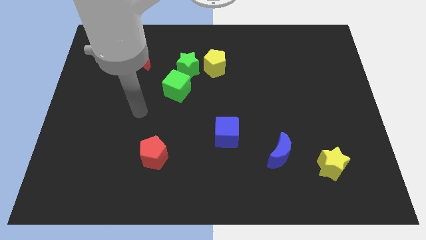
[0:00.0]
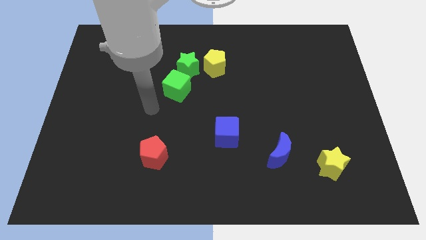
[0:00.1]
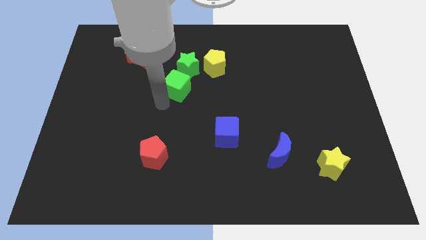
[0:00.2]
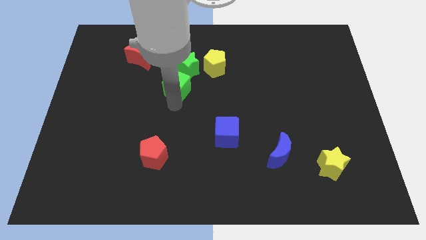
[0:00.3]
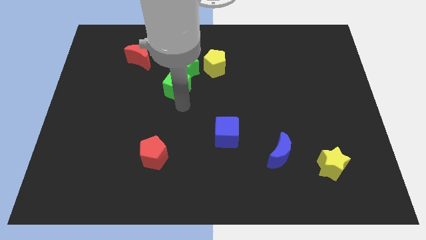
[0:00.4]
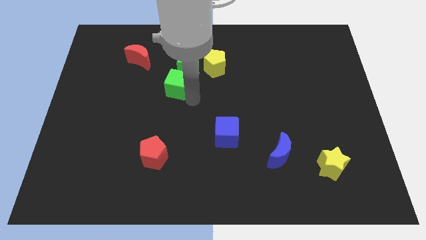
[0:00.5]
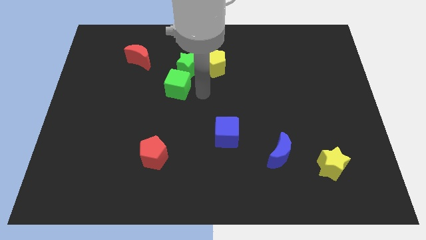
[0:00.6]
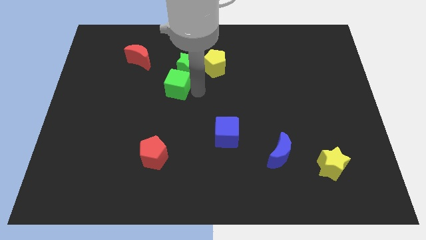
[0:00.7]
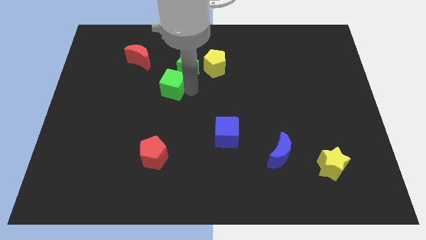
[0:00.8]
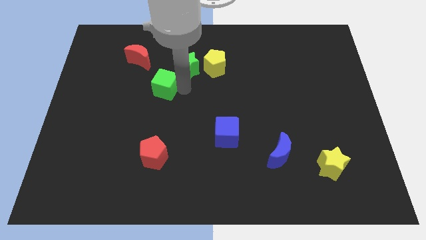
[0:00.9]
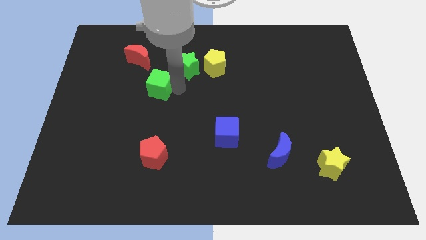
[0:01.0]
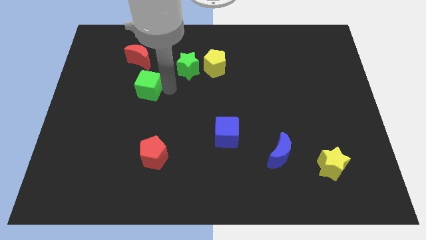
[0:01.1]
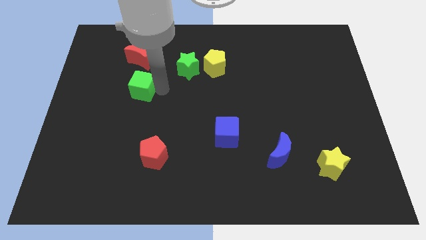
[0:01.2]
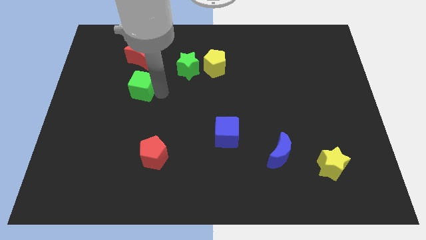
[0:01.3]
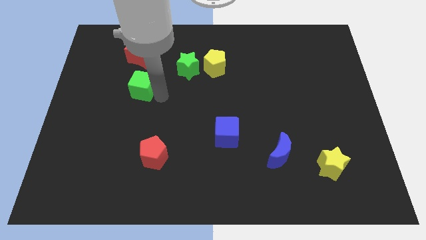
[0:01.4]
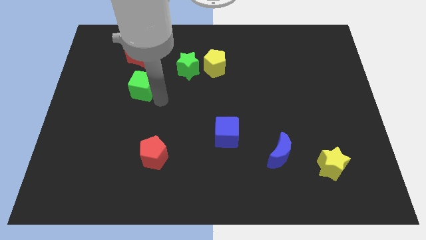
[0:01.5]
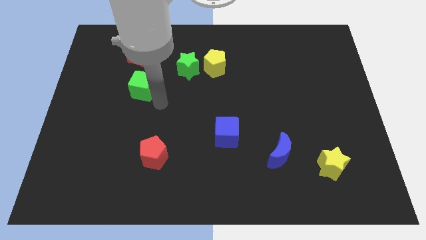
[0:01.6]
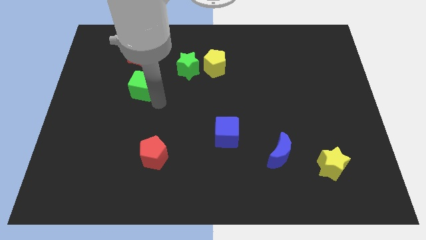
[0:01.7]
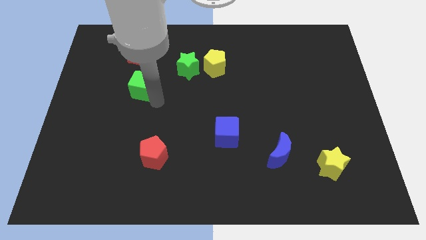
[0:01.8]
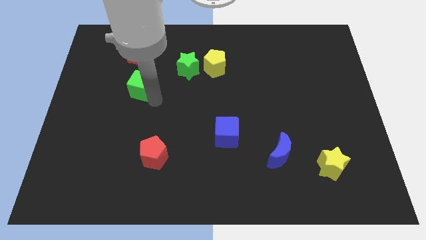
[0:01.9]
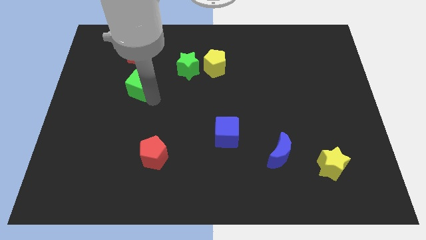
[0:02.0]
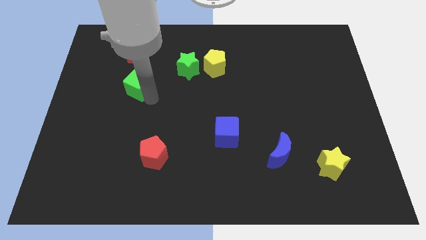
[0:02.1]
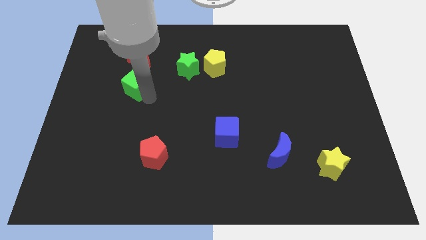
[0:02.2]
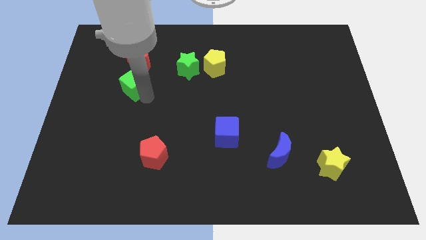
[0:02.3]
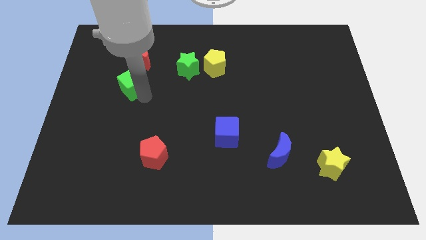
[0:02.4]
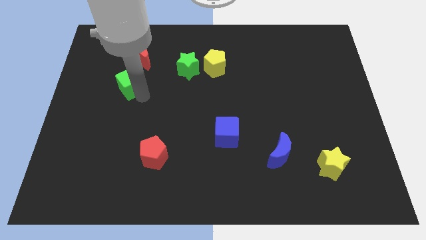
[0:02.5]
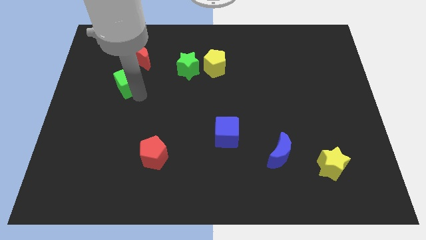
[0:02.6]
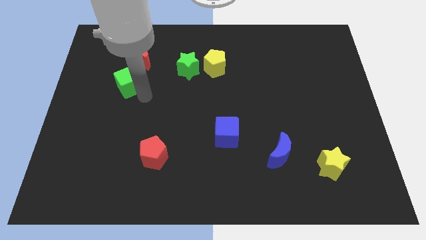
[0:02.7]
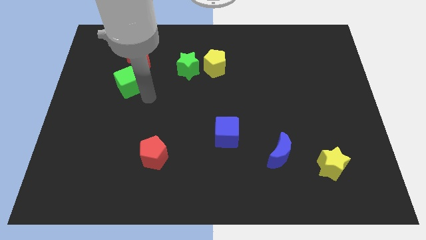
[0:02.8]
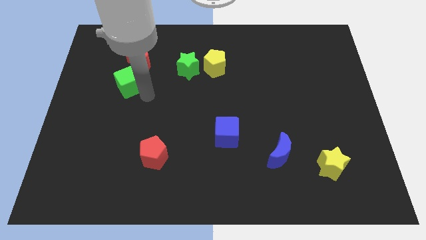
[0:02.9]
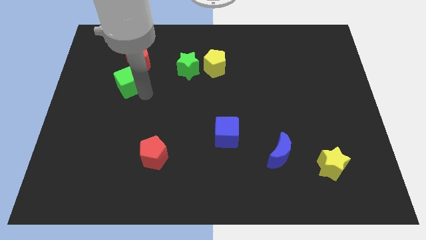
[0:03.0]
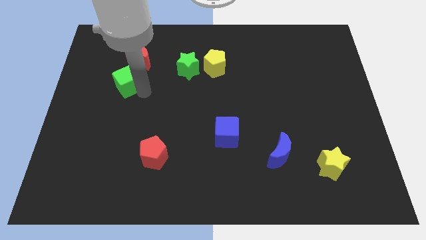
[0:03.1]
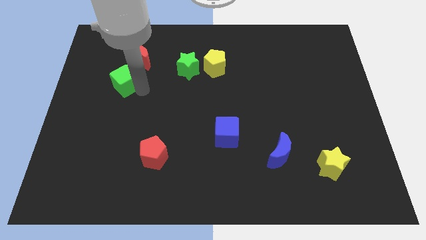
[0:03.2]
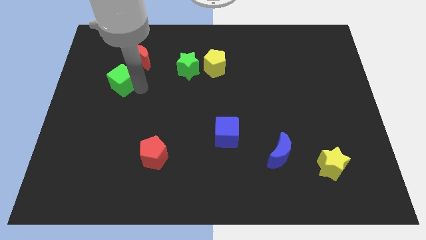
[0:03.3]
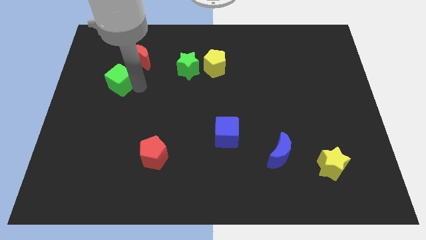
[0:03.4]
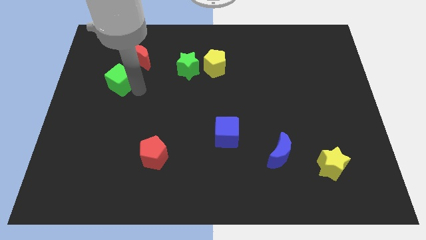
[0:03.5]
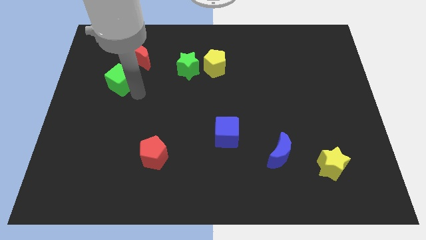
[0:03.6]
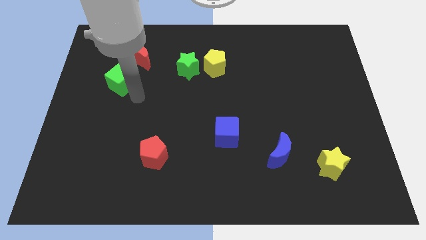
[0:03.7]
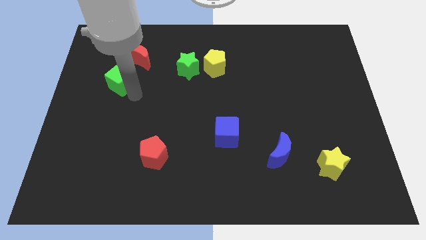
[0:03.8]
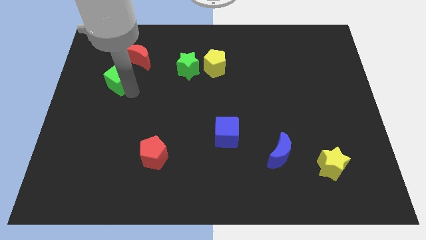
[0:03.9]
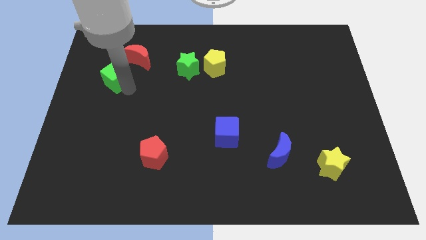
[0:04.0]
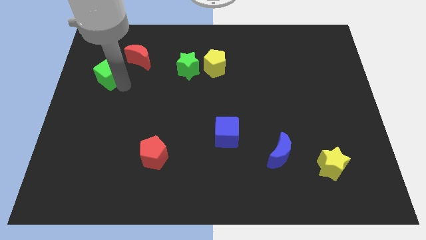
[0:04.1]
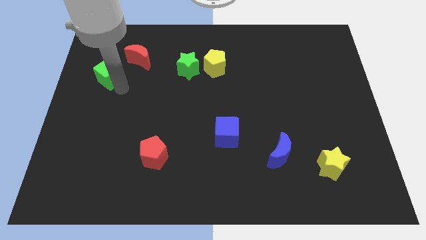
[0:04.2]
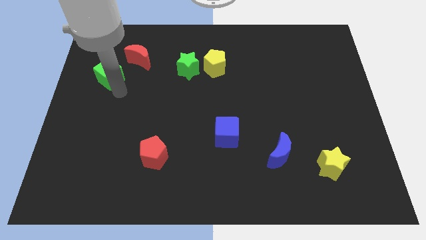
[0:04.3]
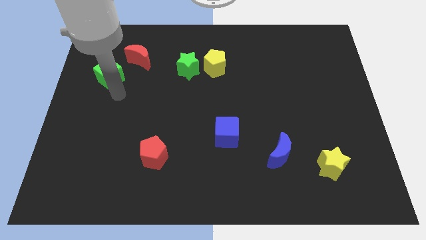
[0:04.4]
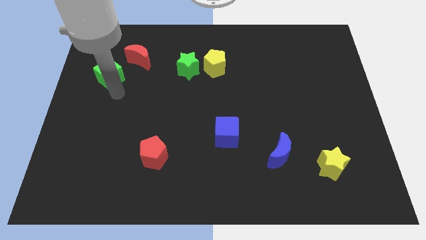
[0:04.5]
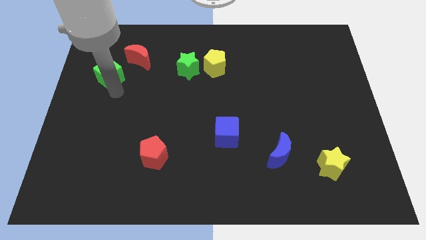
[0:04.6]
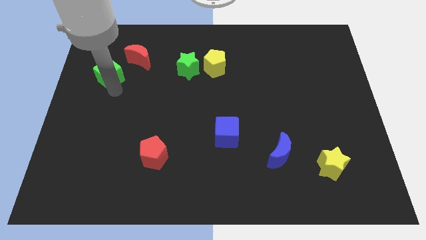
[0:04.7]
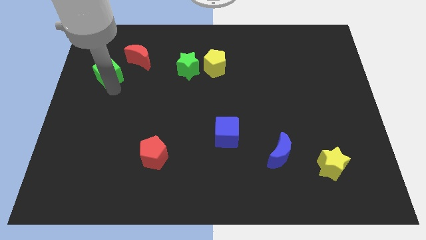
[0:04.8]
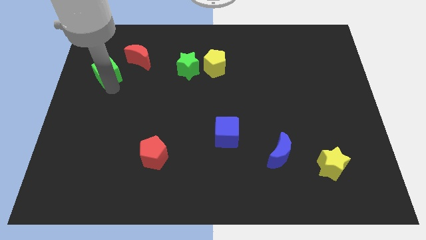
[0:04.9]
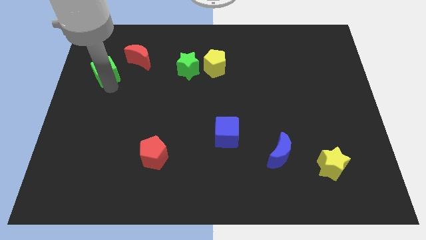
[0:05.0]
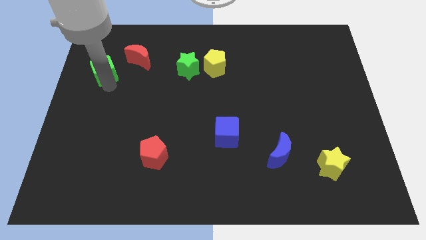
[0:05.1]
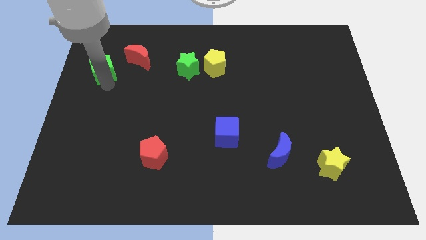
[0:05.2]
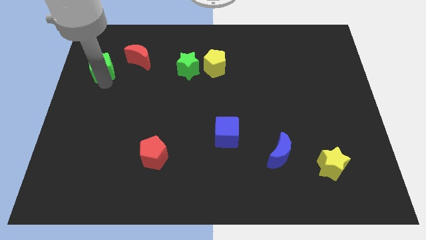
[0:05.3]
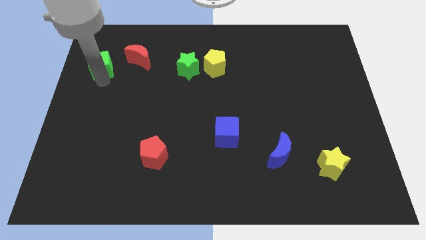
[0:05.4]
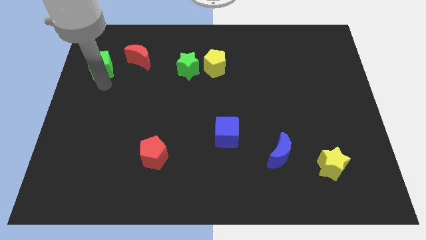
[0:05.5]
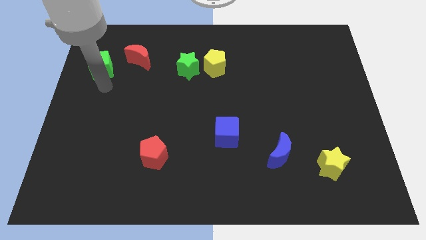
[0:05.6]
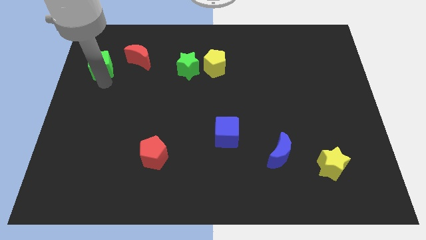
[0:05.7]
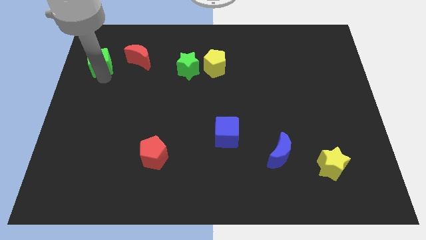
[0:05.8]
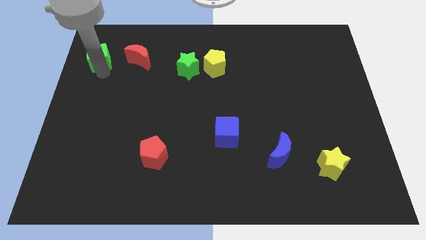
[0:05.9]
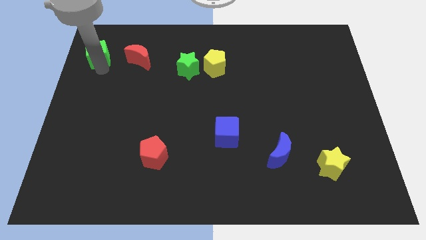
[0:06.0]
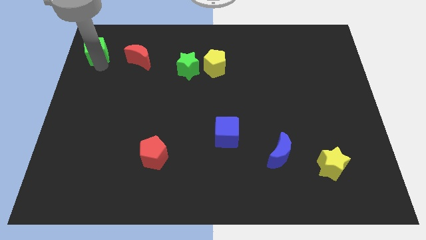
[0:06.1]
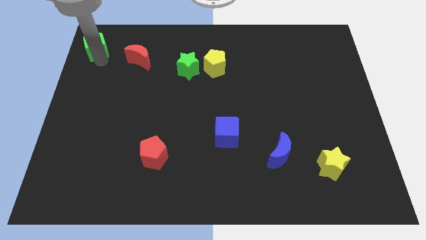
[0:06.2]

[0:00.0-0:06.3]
put the green cube to the upper left corner

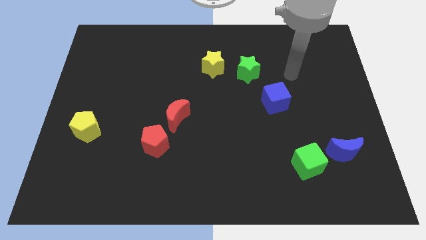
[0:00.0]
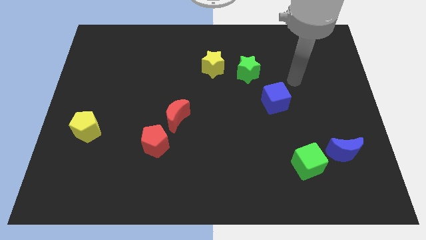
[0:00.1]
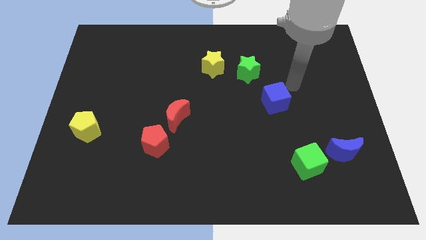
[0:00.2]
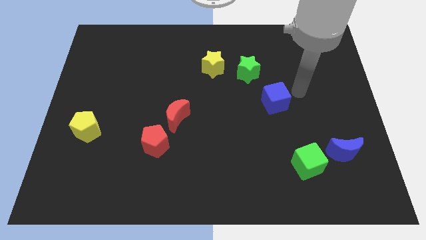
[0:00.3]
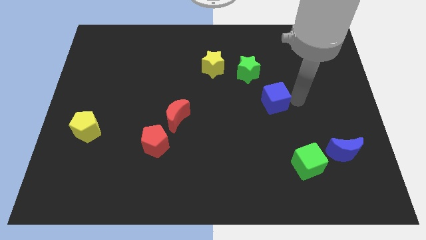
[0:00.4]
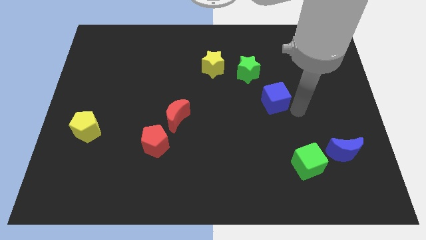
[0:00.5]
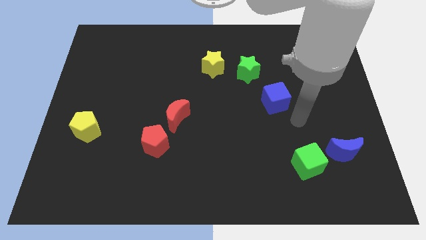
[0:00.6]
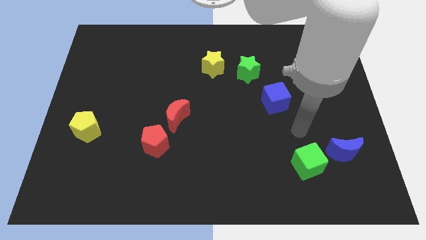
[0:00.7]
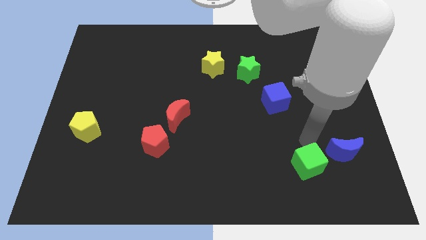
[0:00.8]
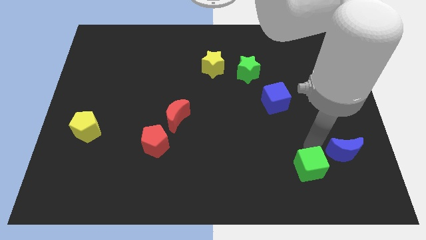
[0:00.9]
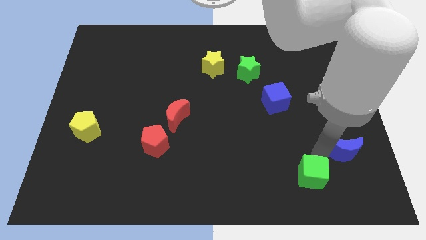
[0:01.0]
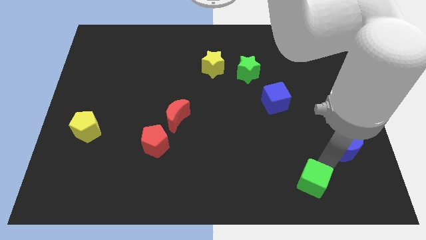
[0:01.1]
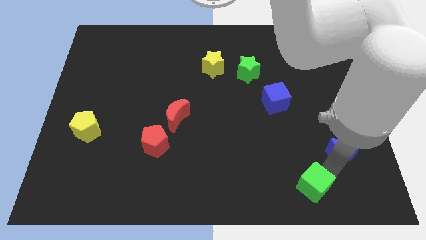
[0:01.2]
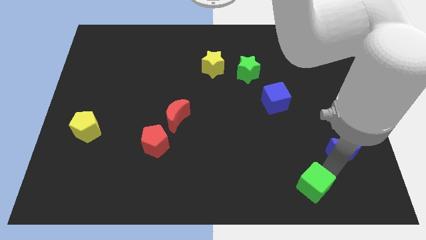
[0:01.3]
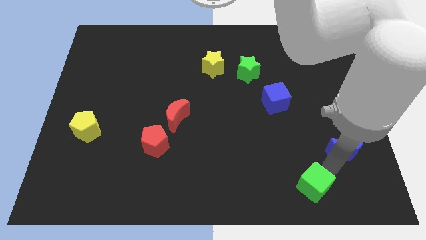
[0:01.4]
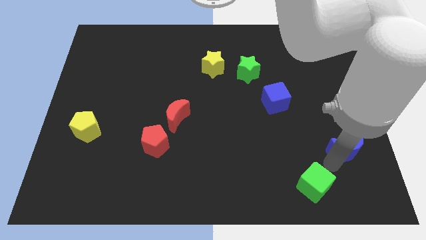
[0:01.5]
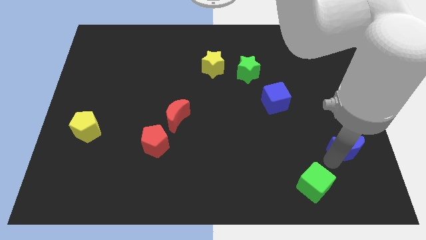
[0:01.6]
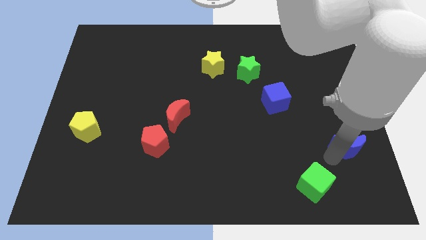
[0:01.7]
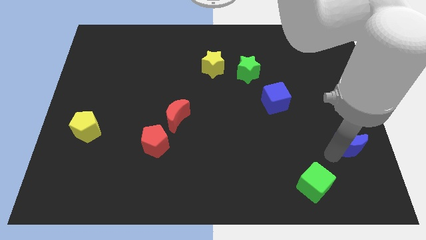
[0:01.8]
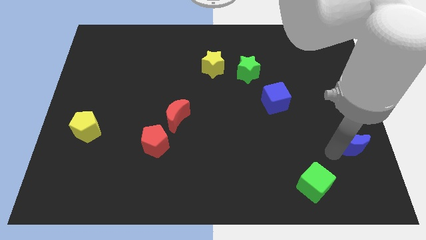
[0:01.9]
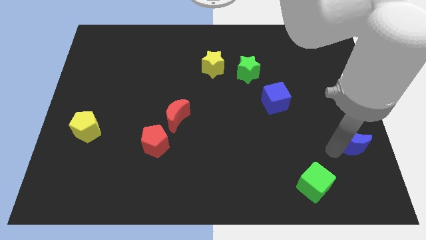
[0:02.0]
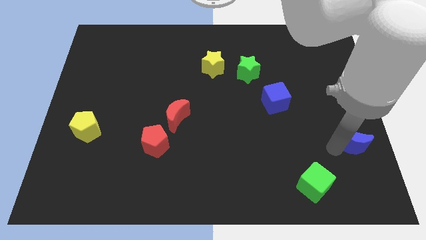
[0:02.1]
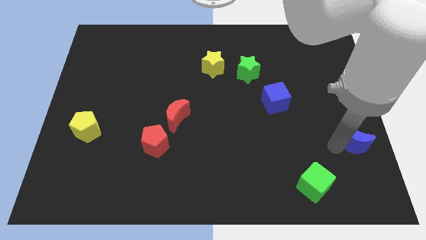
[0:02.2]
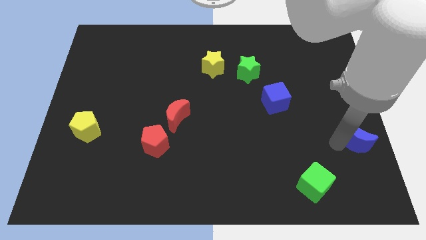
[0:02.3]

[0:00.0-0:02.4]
slide the blue moon to the right side of the board
